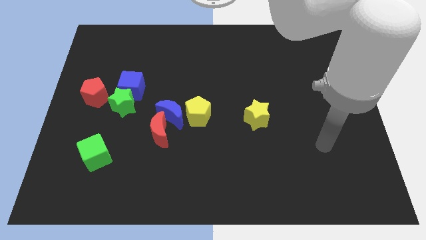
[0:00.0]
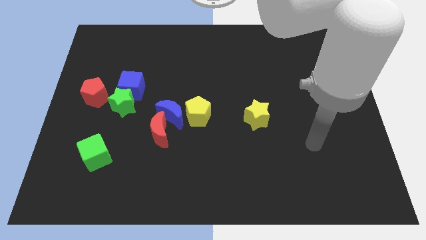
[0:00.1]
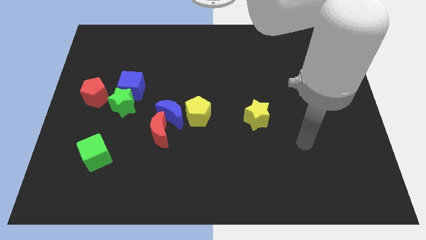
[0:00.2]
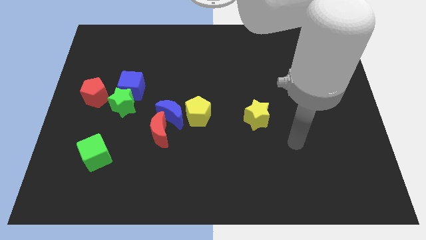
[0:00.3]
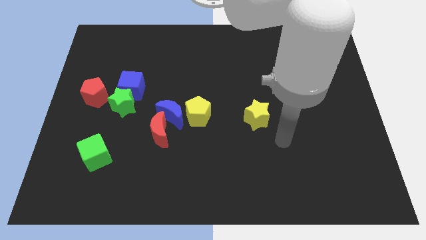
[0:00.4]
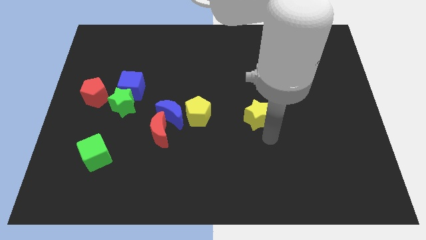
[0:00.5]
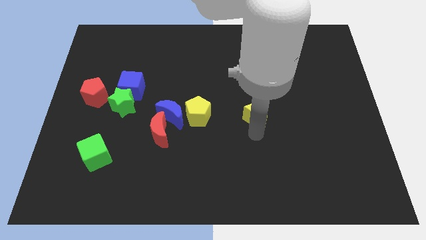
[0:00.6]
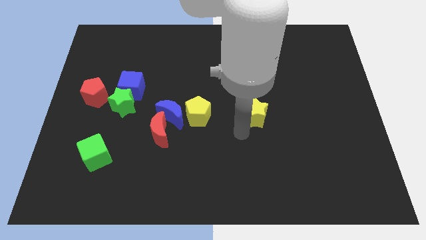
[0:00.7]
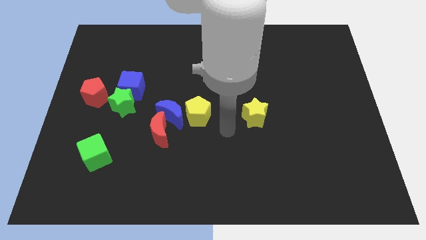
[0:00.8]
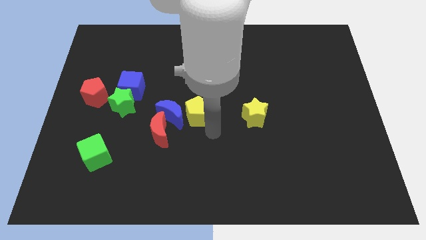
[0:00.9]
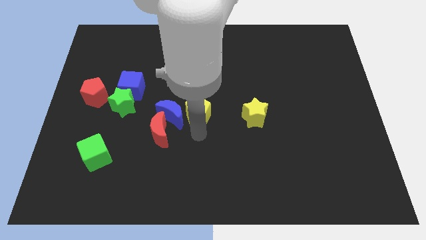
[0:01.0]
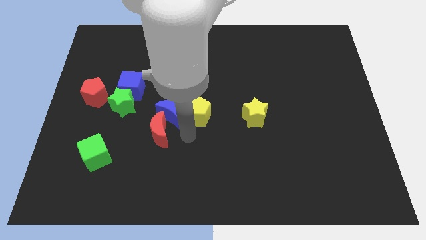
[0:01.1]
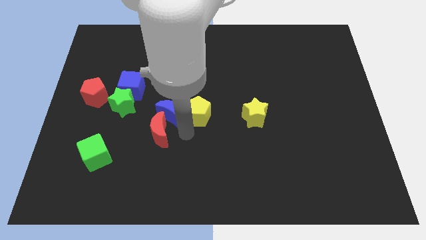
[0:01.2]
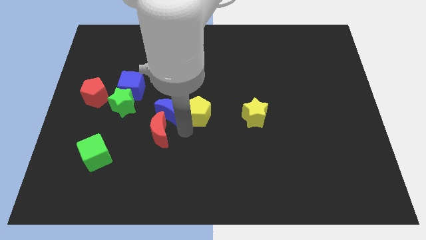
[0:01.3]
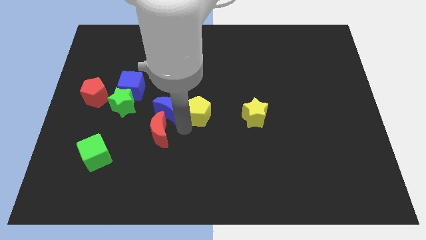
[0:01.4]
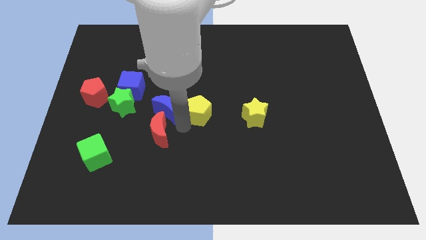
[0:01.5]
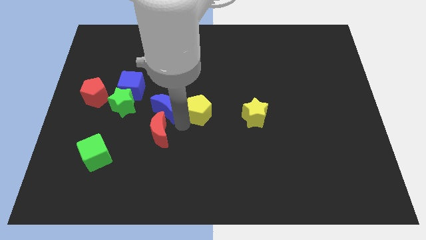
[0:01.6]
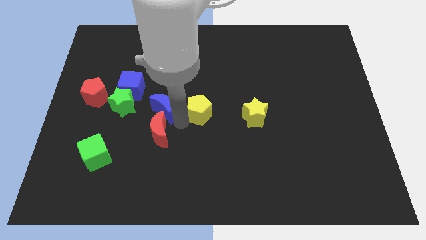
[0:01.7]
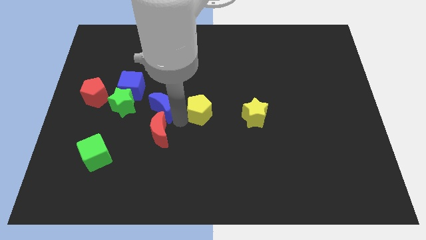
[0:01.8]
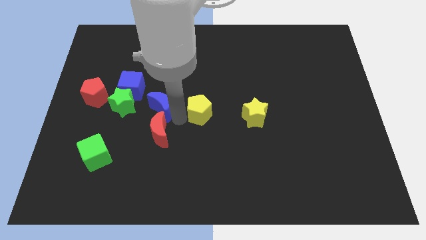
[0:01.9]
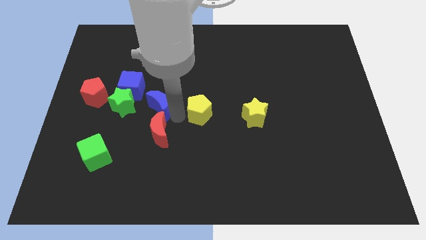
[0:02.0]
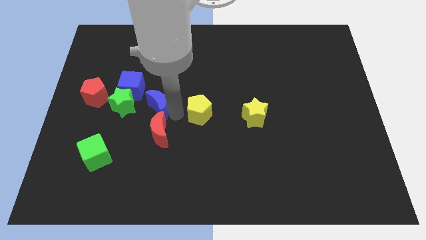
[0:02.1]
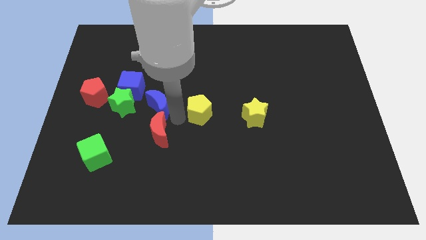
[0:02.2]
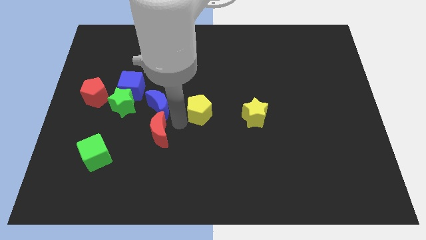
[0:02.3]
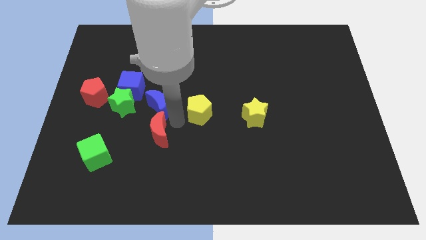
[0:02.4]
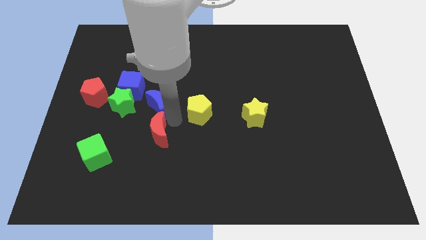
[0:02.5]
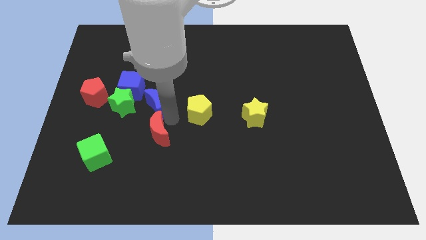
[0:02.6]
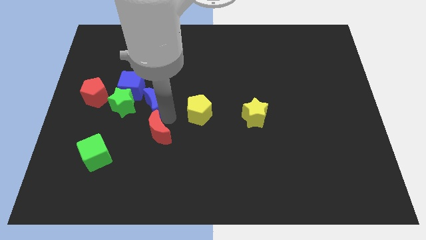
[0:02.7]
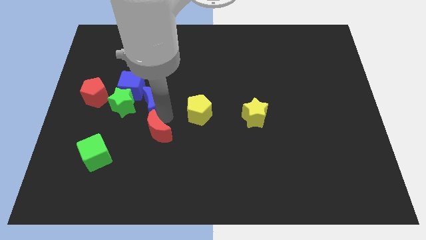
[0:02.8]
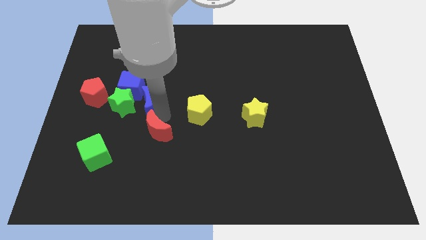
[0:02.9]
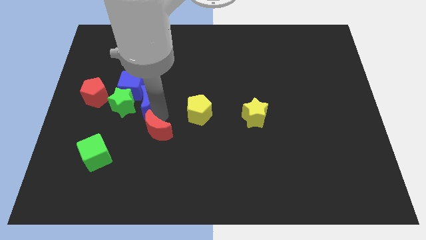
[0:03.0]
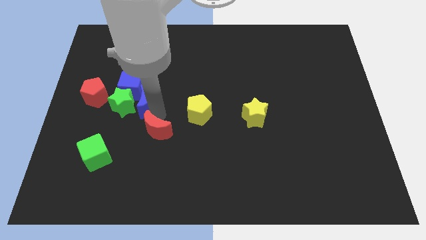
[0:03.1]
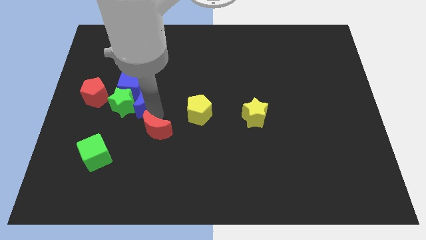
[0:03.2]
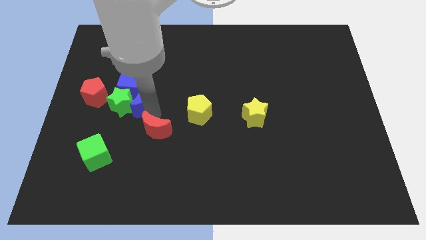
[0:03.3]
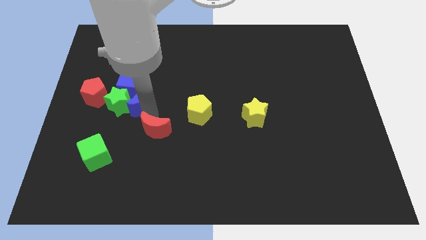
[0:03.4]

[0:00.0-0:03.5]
separate the blue moon from the red moon and yellow pentagon

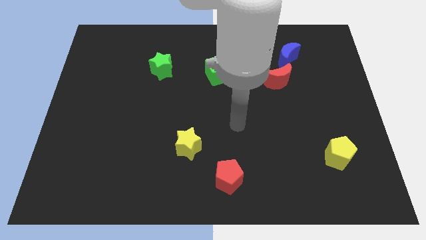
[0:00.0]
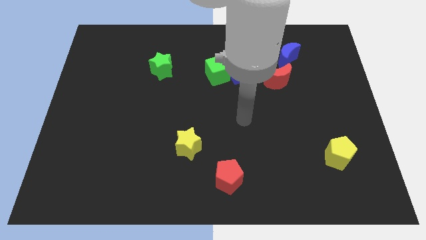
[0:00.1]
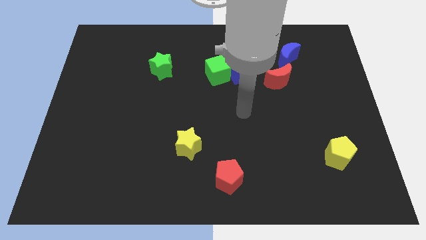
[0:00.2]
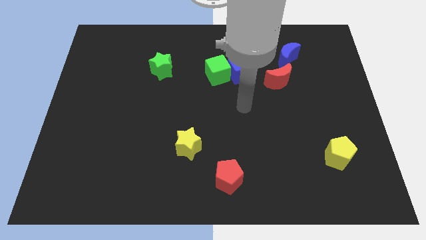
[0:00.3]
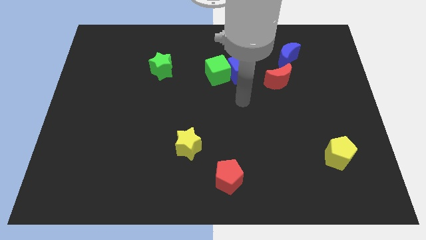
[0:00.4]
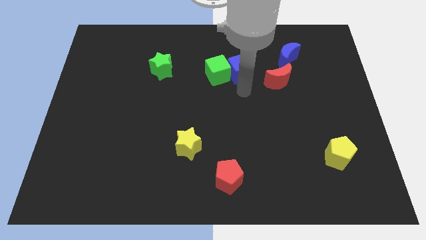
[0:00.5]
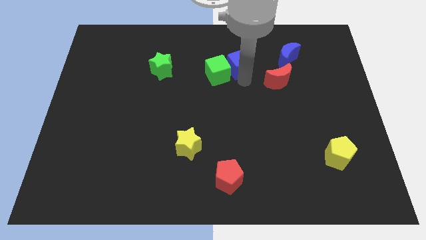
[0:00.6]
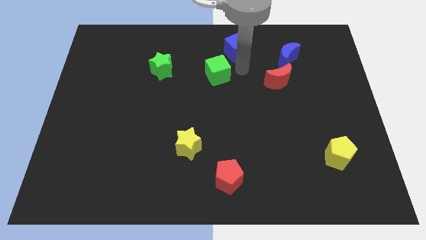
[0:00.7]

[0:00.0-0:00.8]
pull the green cube apart from the blue cube

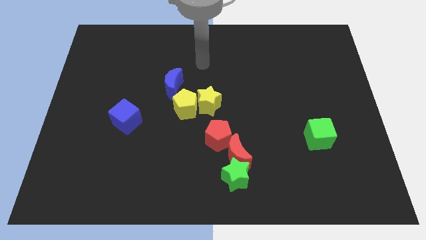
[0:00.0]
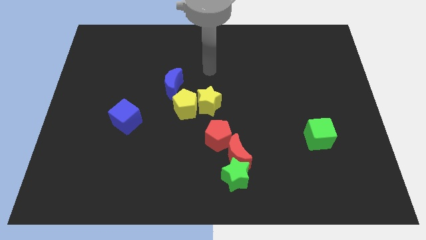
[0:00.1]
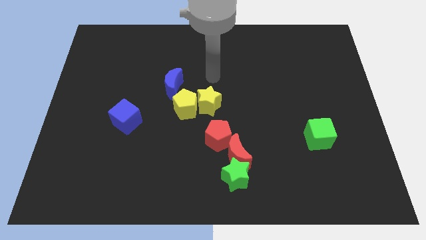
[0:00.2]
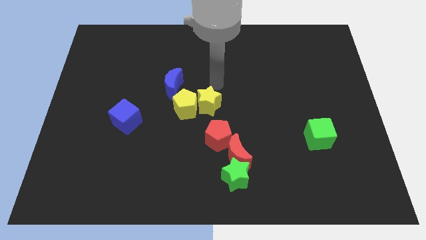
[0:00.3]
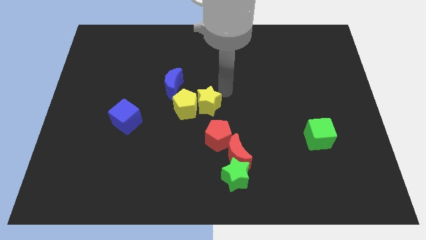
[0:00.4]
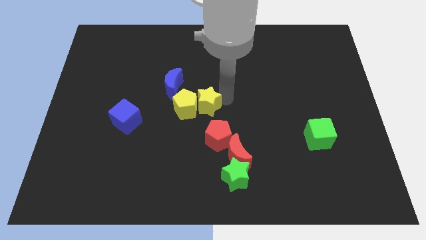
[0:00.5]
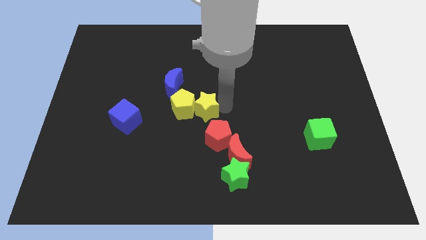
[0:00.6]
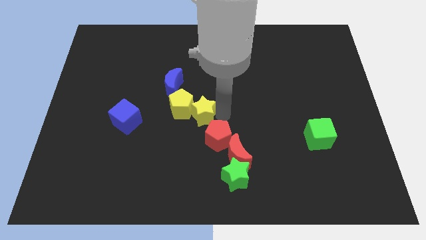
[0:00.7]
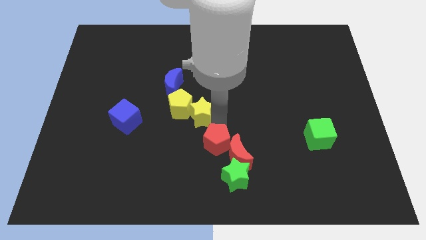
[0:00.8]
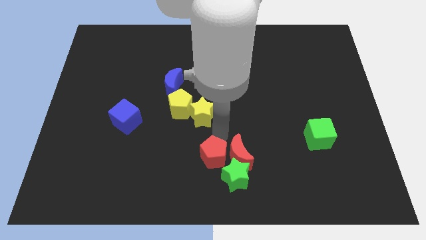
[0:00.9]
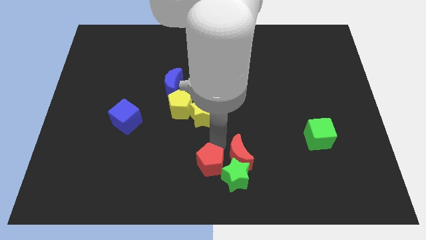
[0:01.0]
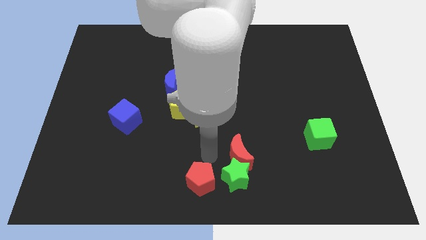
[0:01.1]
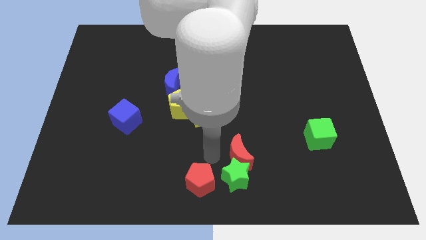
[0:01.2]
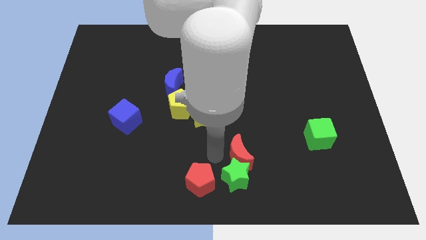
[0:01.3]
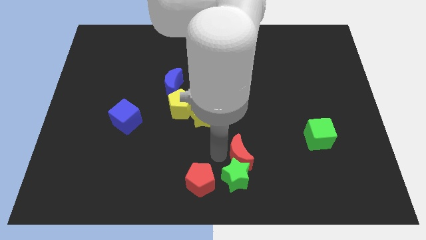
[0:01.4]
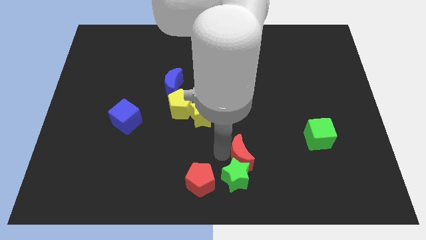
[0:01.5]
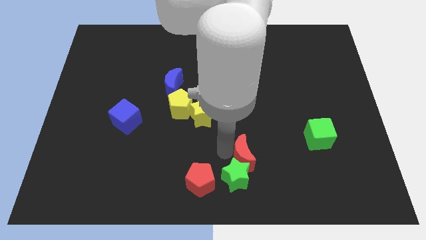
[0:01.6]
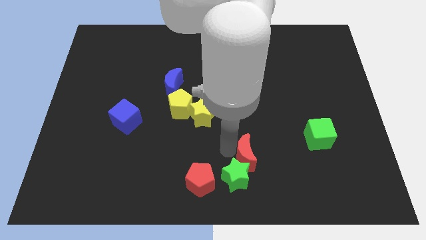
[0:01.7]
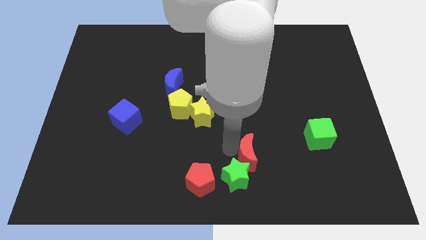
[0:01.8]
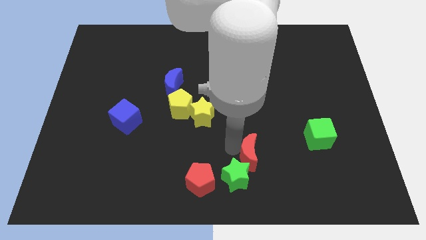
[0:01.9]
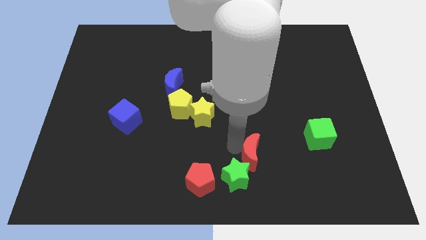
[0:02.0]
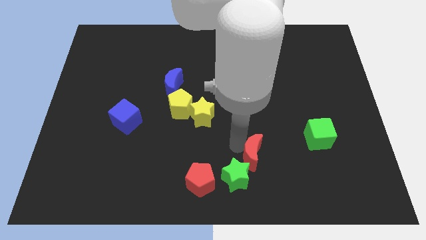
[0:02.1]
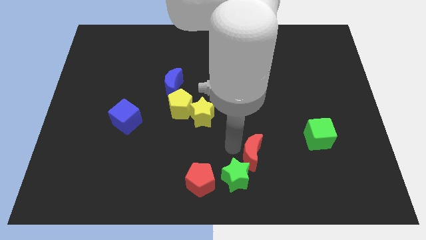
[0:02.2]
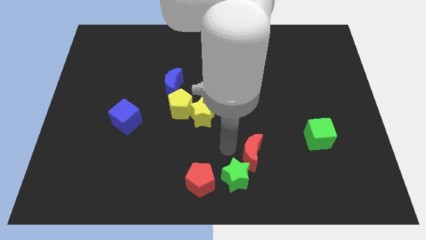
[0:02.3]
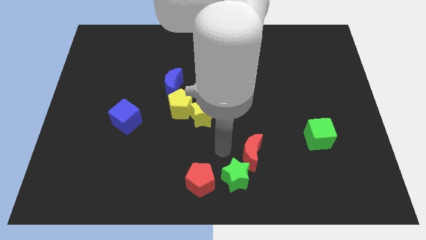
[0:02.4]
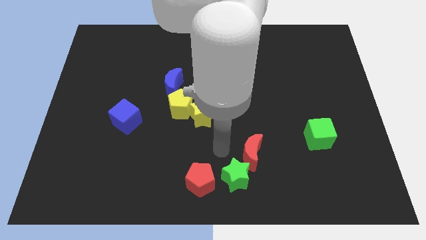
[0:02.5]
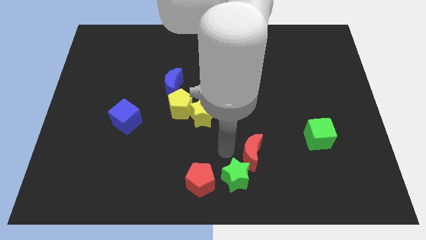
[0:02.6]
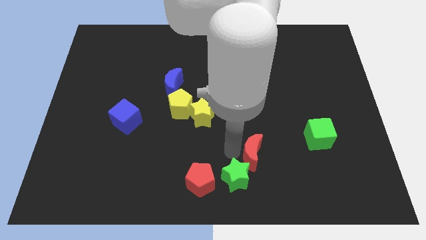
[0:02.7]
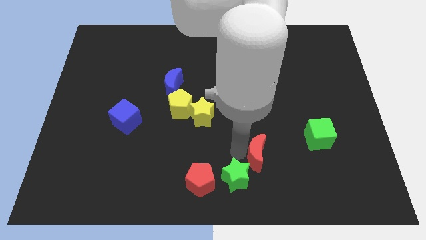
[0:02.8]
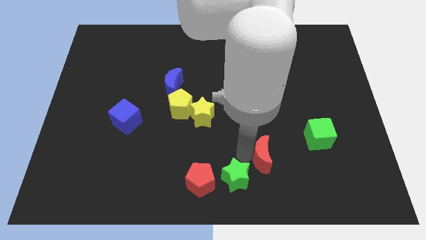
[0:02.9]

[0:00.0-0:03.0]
move the red moon away from the green star and red pentagon

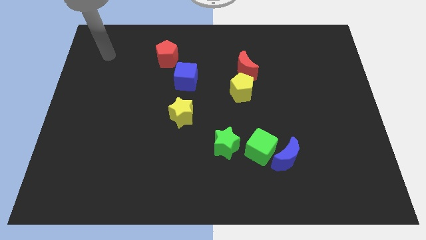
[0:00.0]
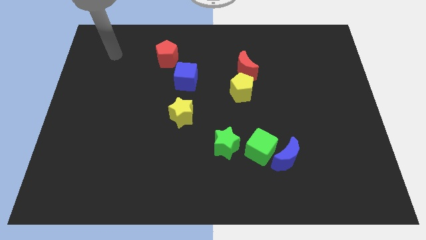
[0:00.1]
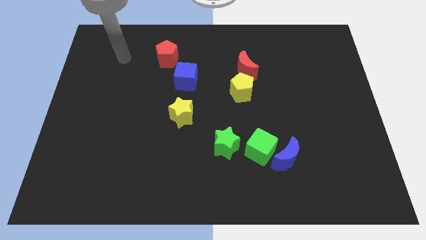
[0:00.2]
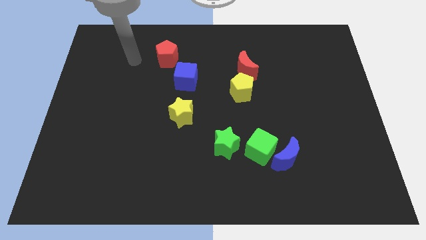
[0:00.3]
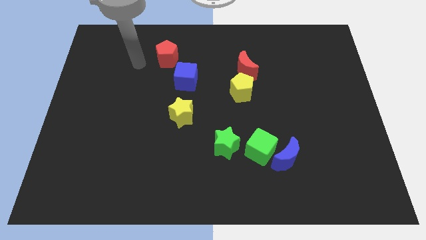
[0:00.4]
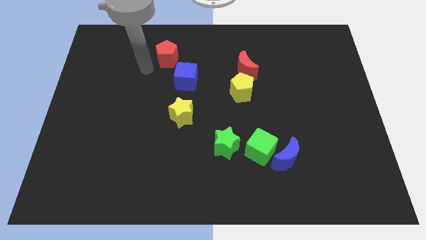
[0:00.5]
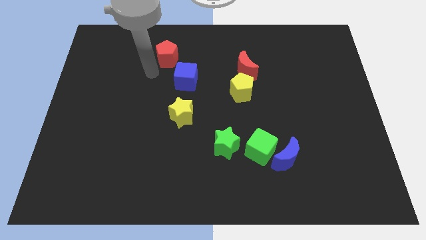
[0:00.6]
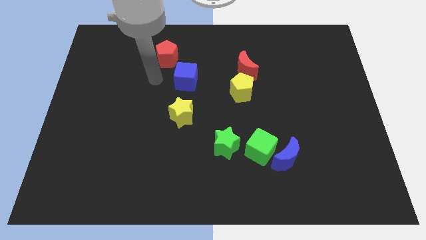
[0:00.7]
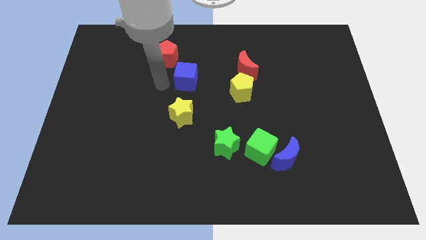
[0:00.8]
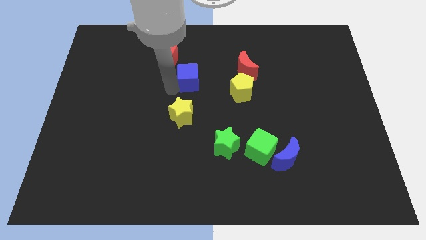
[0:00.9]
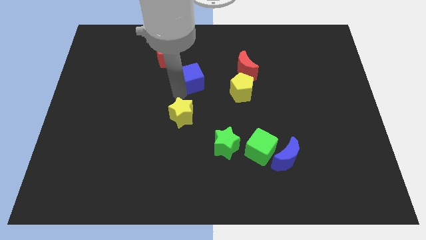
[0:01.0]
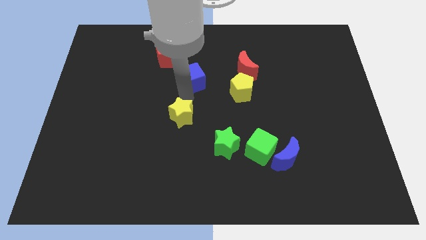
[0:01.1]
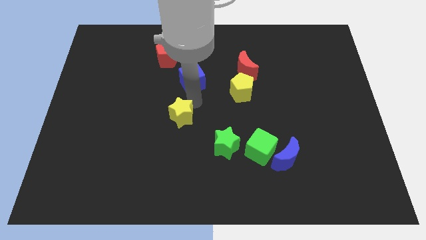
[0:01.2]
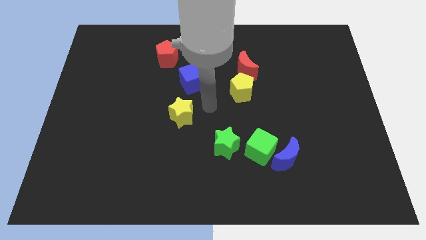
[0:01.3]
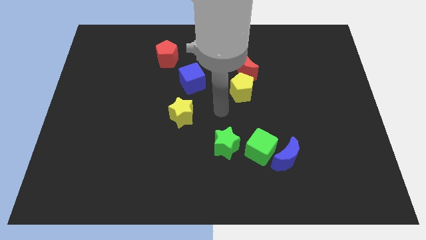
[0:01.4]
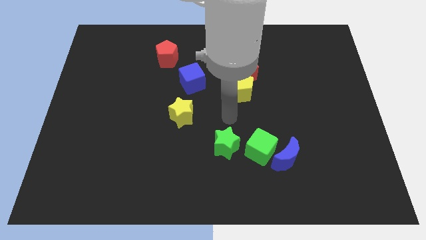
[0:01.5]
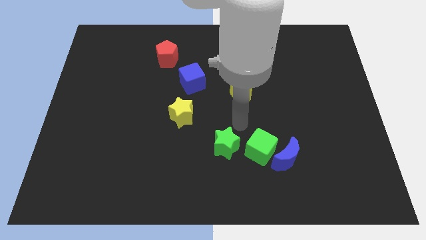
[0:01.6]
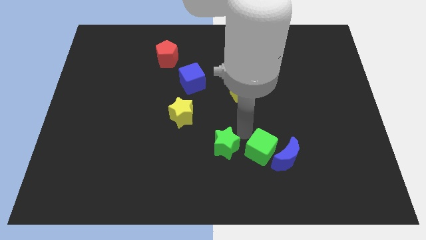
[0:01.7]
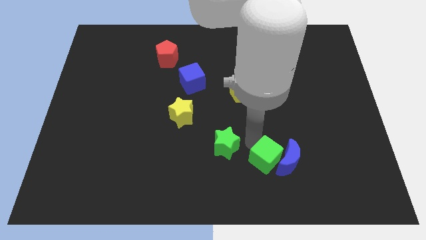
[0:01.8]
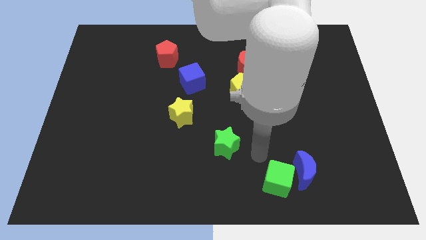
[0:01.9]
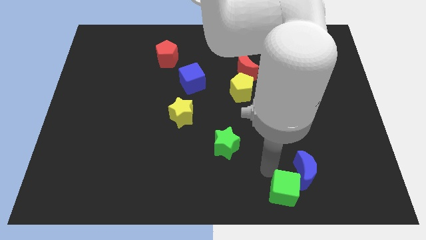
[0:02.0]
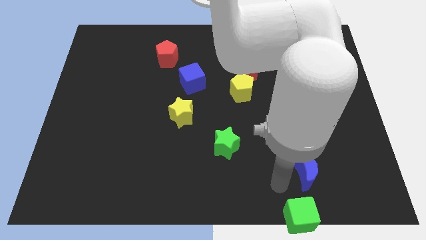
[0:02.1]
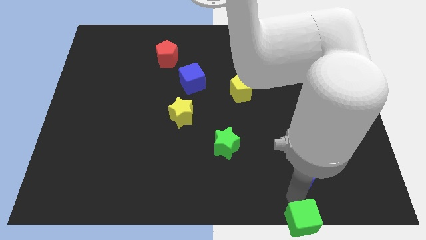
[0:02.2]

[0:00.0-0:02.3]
move the blue moon away from the green cube
